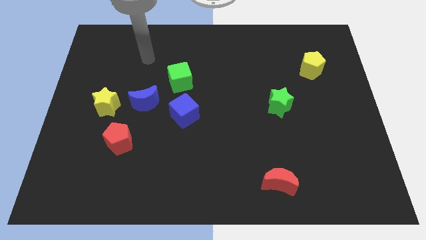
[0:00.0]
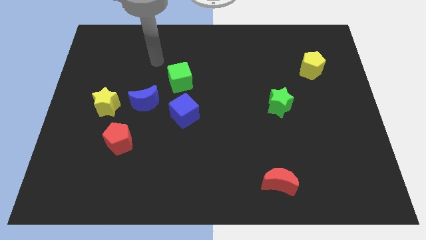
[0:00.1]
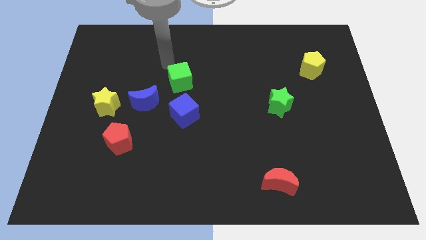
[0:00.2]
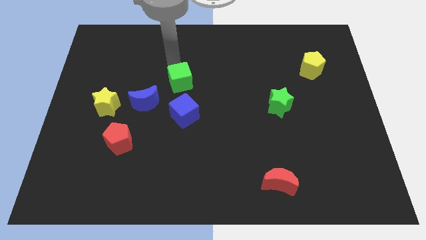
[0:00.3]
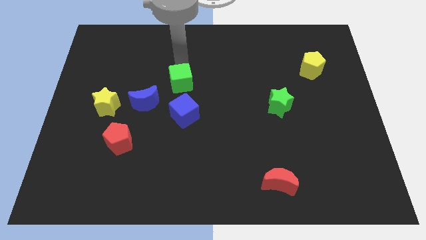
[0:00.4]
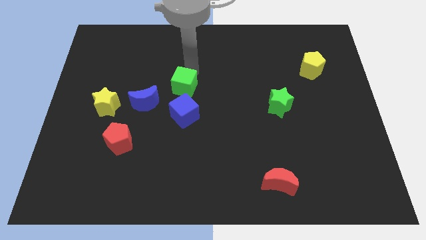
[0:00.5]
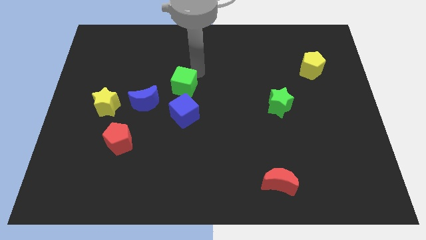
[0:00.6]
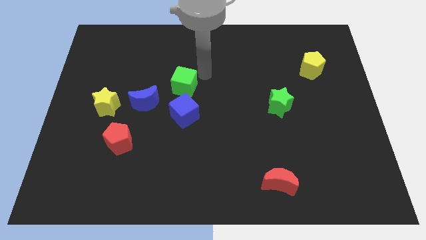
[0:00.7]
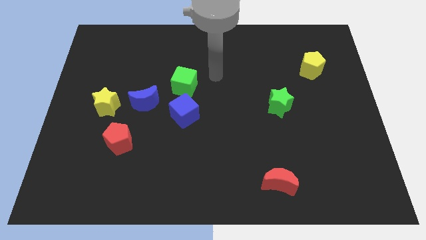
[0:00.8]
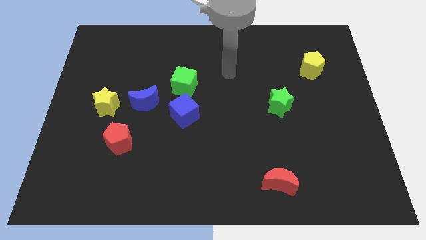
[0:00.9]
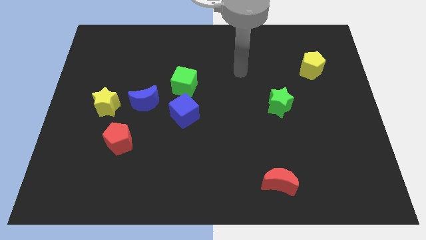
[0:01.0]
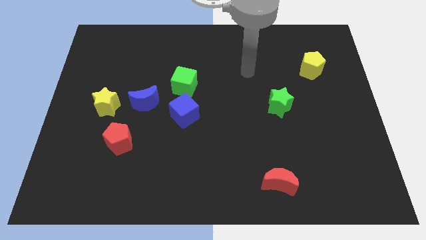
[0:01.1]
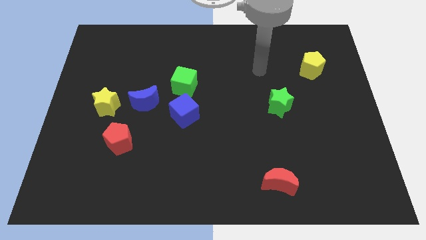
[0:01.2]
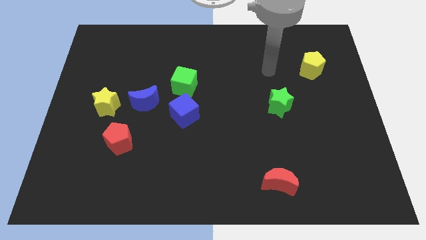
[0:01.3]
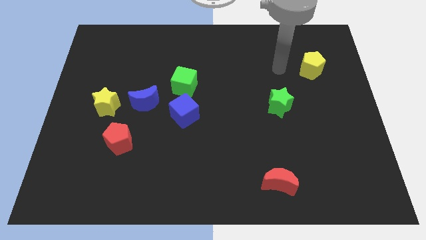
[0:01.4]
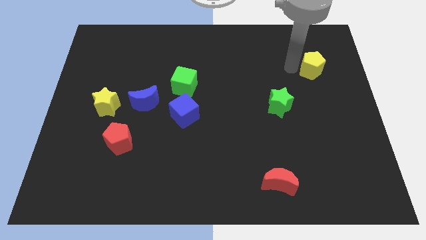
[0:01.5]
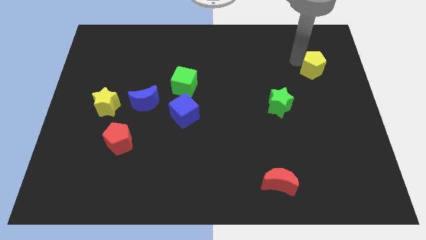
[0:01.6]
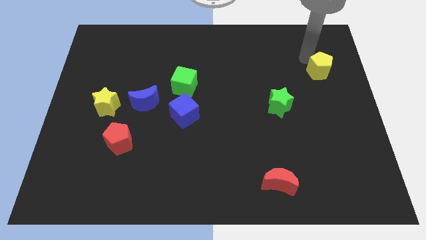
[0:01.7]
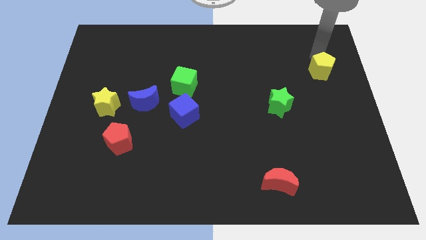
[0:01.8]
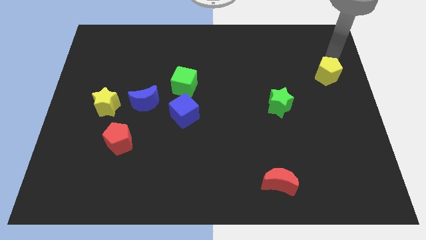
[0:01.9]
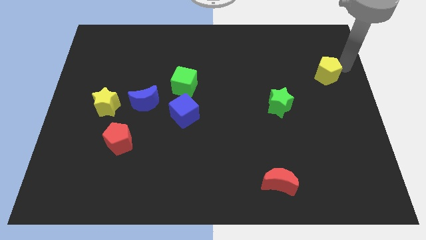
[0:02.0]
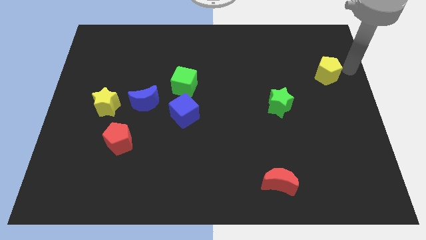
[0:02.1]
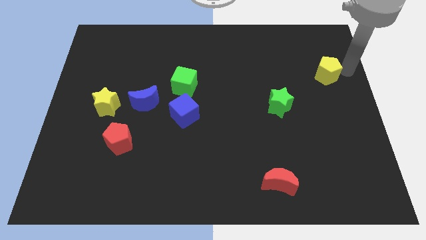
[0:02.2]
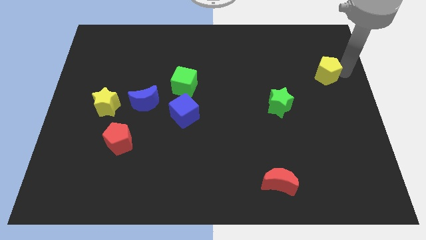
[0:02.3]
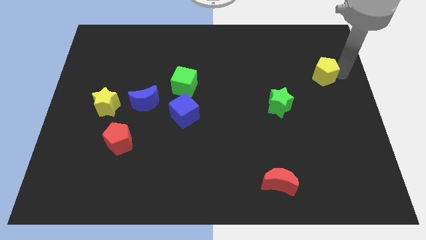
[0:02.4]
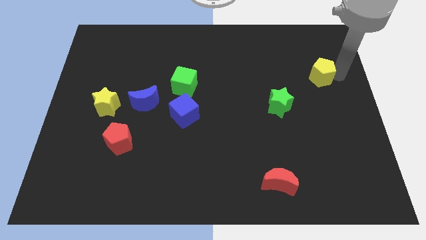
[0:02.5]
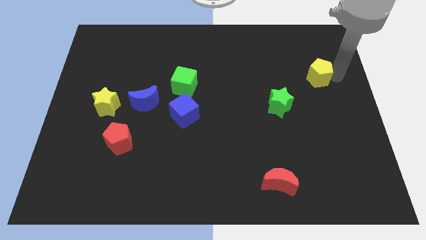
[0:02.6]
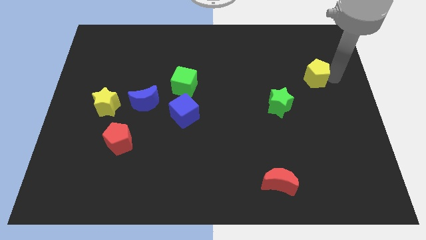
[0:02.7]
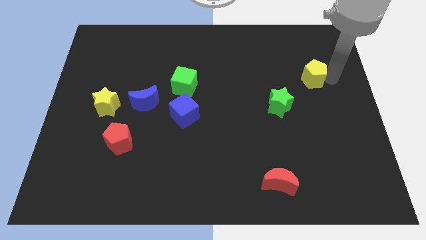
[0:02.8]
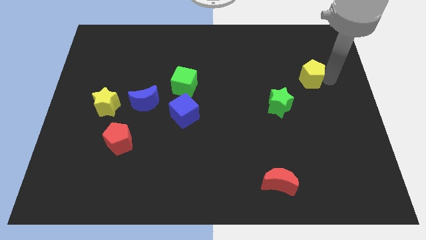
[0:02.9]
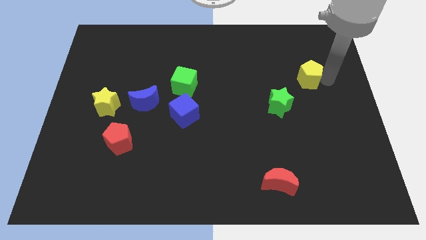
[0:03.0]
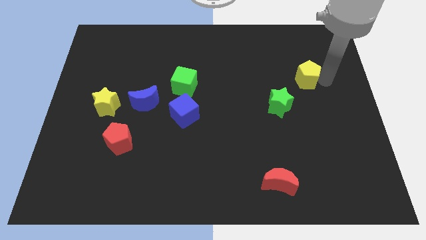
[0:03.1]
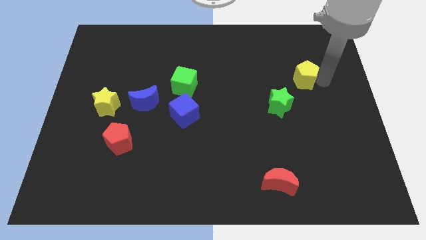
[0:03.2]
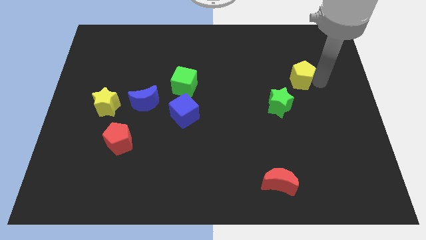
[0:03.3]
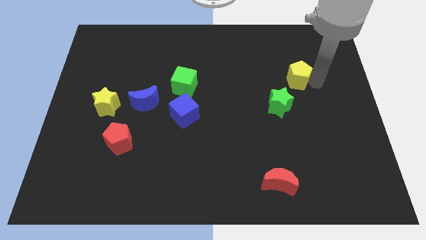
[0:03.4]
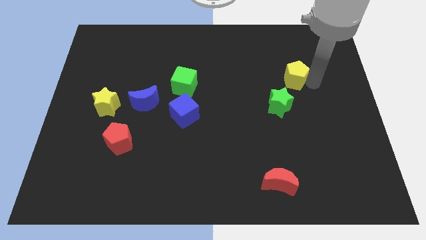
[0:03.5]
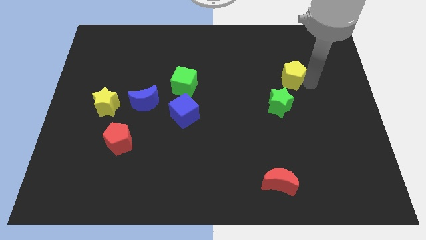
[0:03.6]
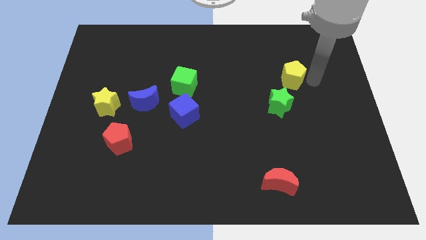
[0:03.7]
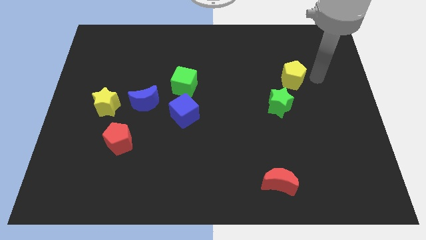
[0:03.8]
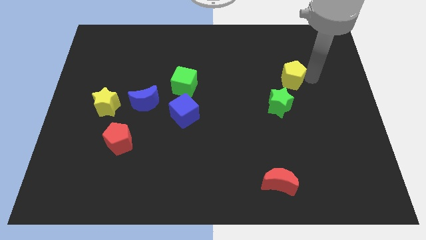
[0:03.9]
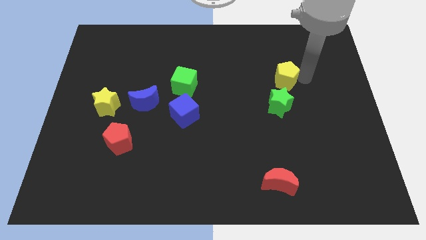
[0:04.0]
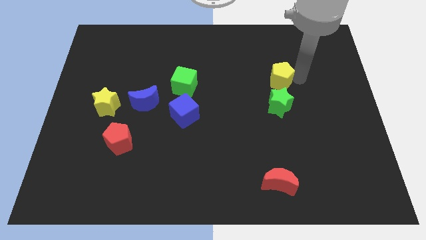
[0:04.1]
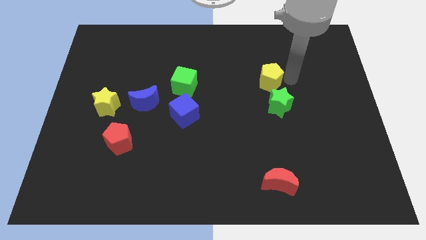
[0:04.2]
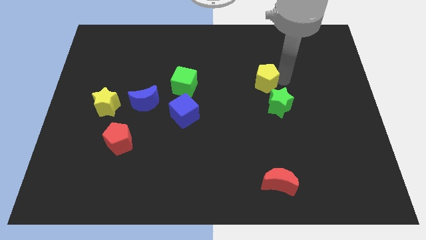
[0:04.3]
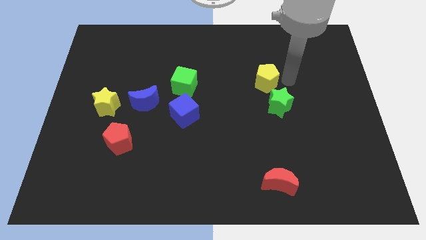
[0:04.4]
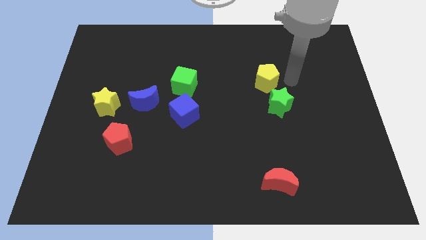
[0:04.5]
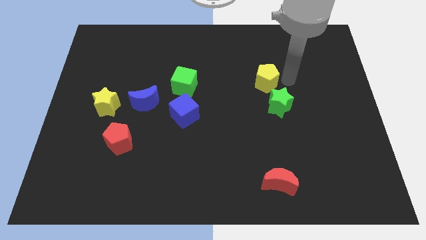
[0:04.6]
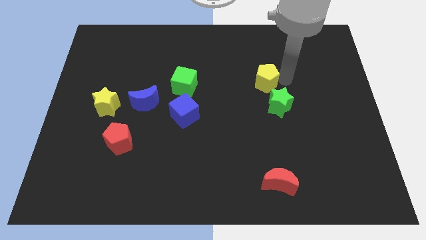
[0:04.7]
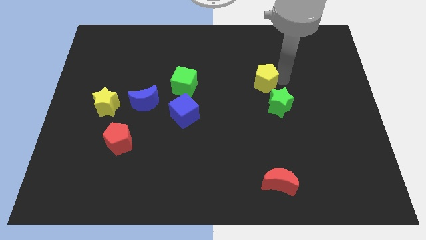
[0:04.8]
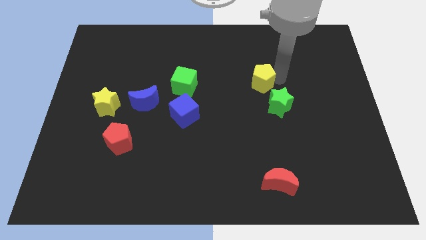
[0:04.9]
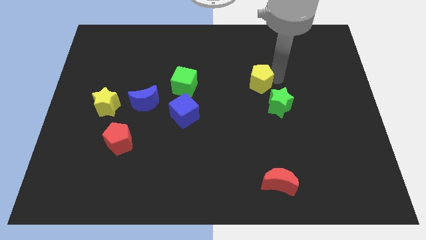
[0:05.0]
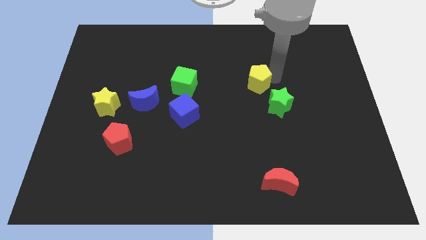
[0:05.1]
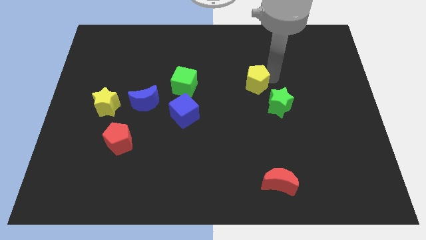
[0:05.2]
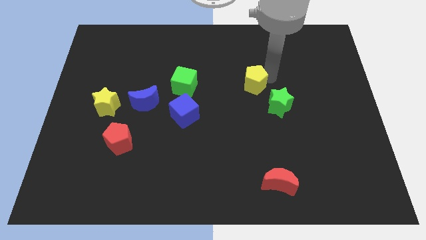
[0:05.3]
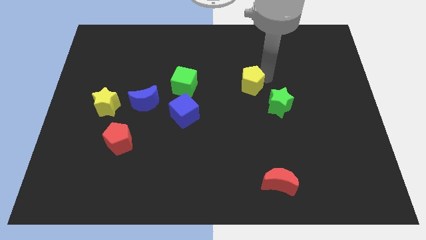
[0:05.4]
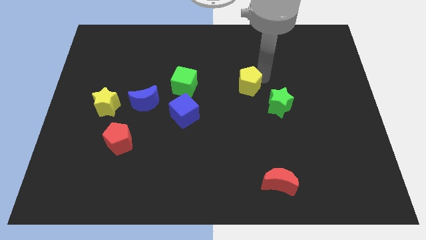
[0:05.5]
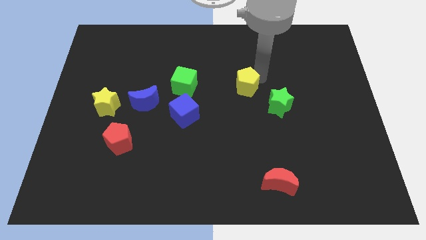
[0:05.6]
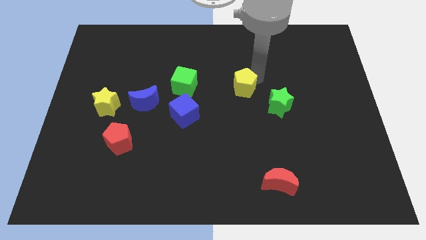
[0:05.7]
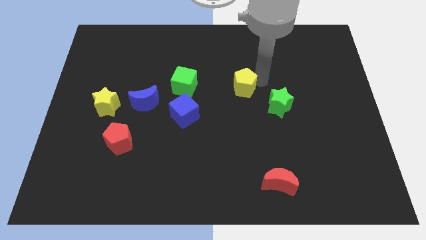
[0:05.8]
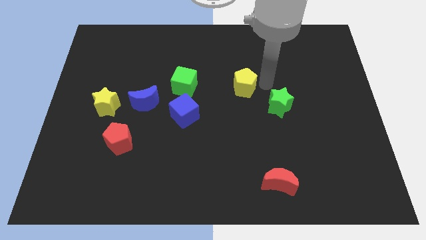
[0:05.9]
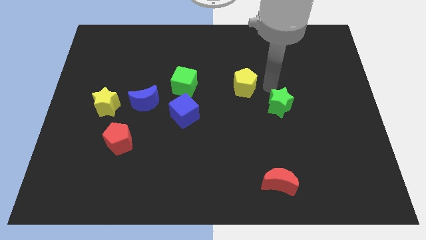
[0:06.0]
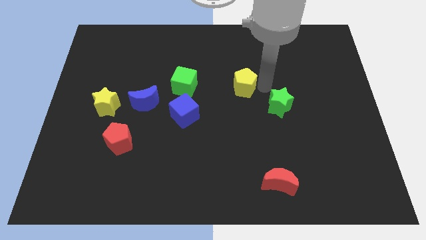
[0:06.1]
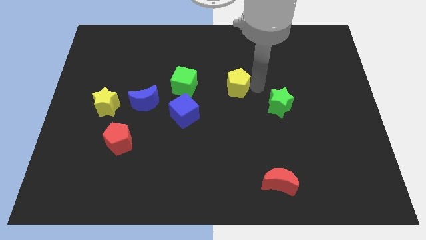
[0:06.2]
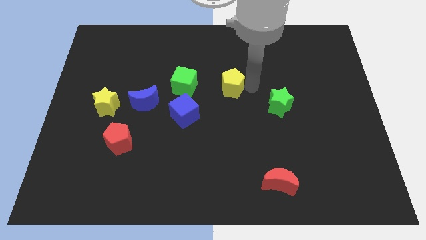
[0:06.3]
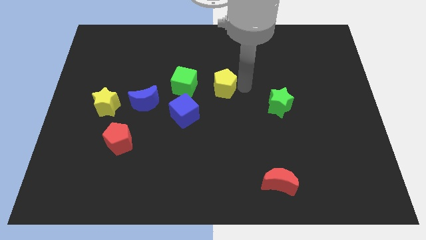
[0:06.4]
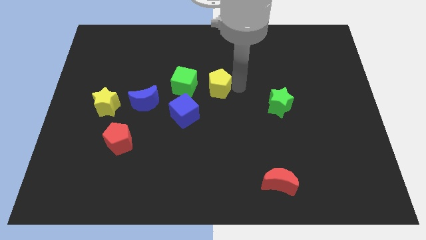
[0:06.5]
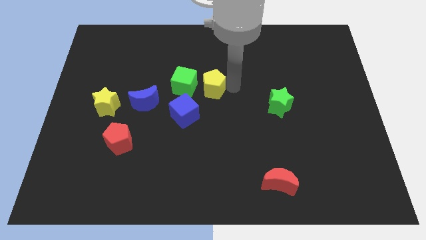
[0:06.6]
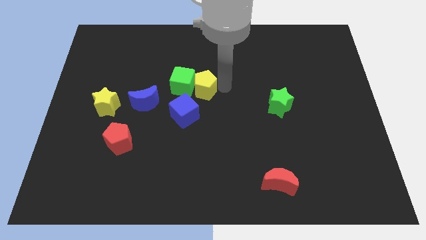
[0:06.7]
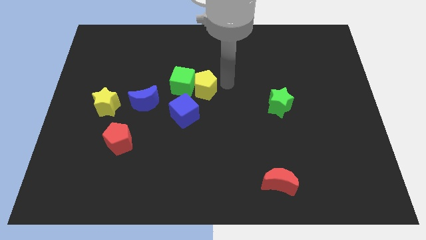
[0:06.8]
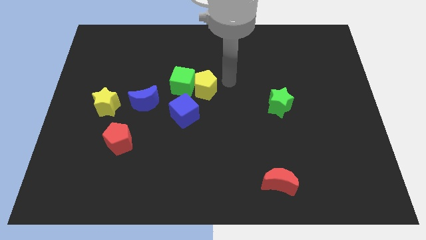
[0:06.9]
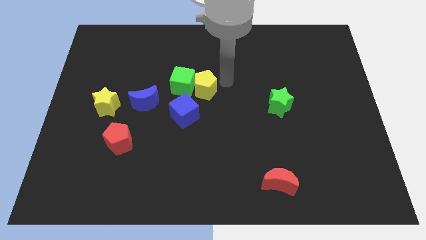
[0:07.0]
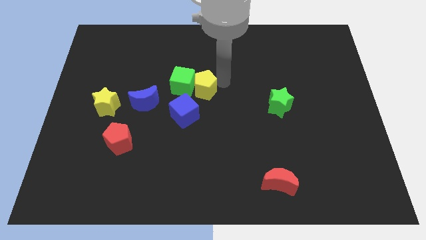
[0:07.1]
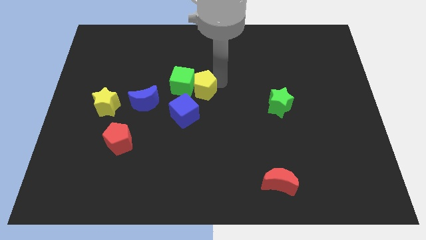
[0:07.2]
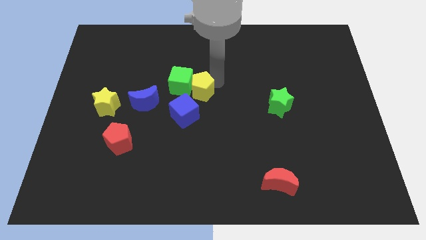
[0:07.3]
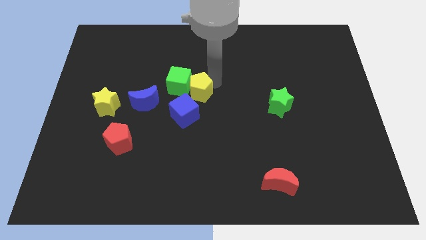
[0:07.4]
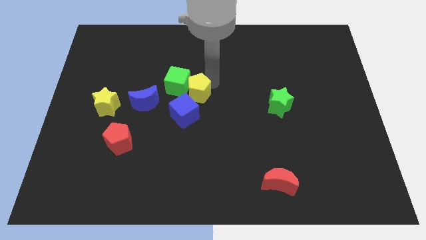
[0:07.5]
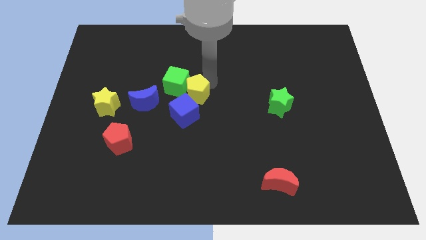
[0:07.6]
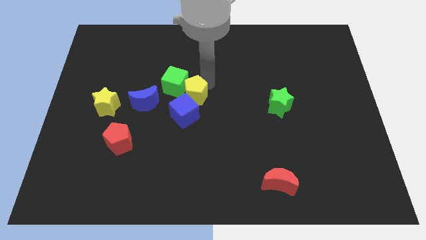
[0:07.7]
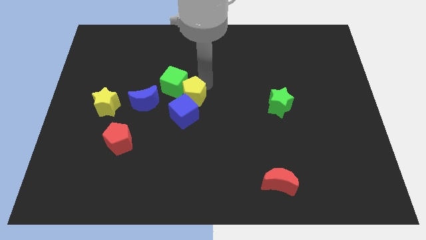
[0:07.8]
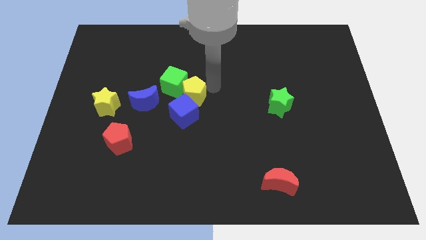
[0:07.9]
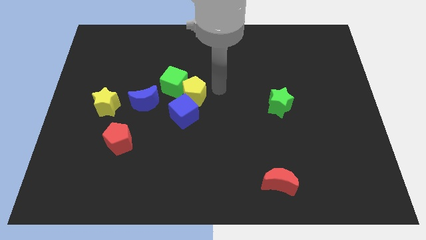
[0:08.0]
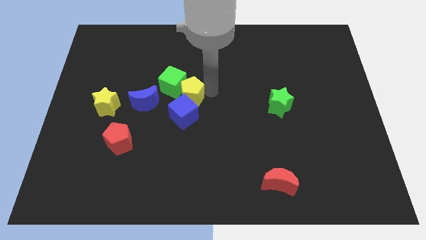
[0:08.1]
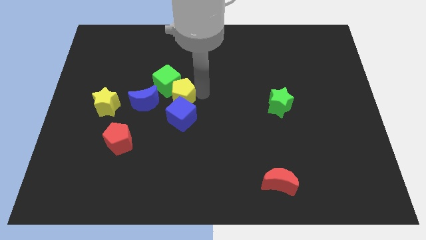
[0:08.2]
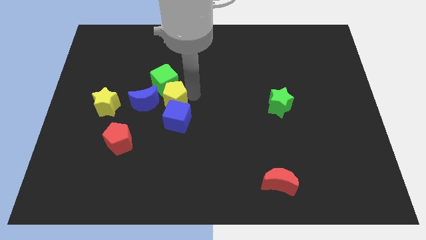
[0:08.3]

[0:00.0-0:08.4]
push the yellow pentagon right of the yellow star
